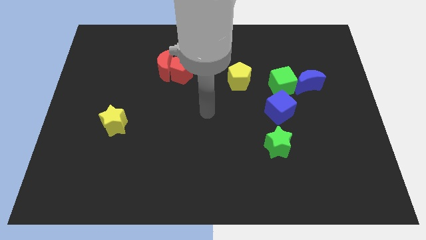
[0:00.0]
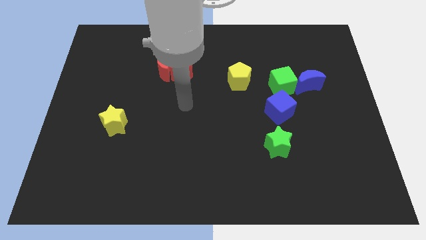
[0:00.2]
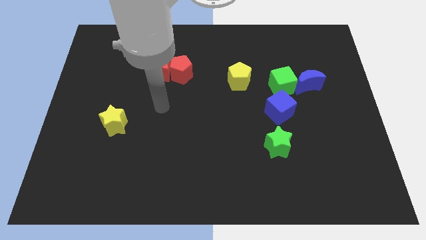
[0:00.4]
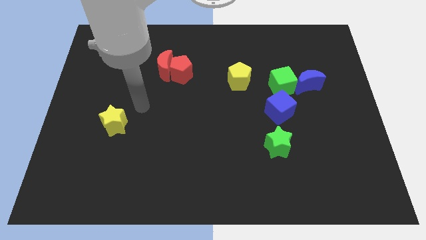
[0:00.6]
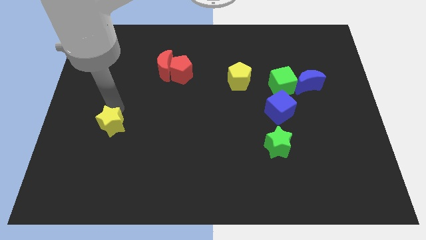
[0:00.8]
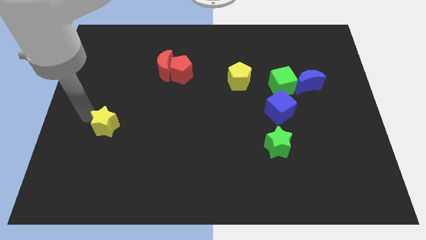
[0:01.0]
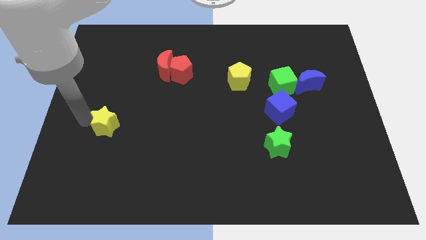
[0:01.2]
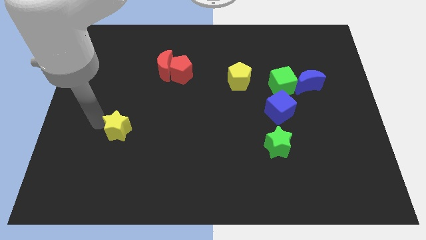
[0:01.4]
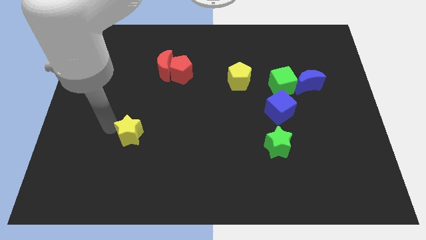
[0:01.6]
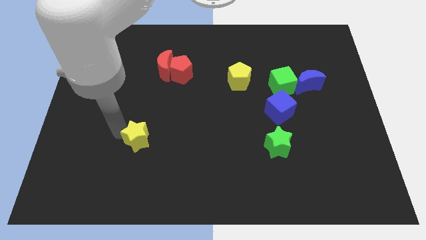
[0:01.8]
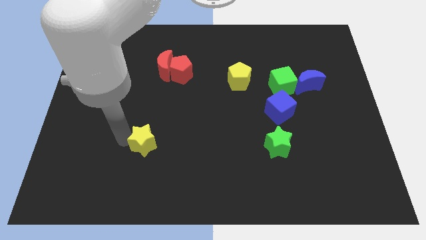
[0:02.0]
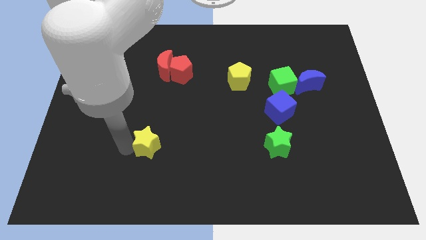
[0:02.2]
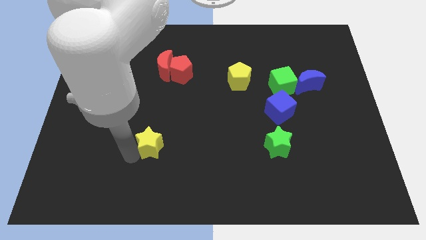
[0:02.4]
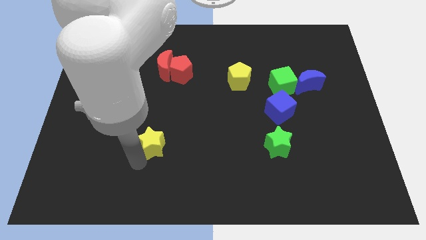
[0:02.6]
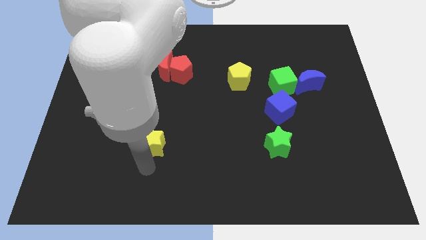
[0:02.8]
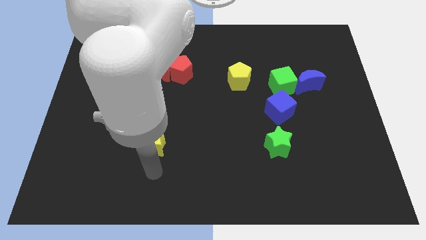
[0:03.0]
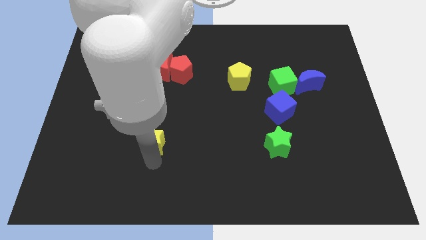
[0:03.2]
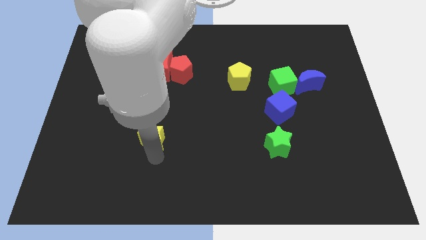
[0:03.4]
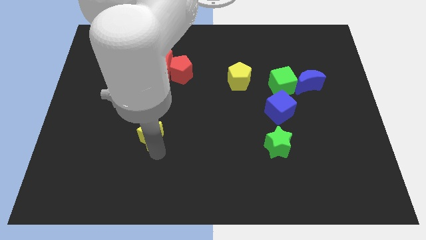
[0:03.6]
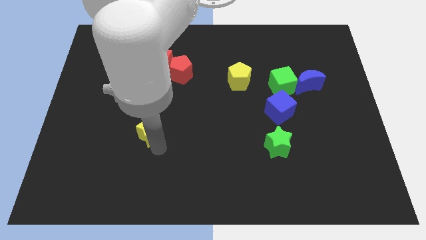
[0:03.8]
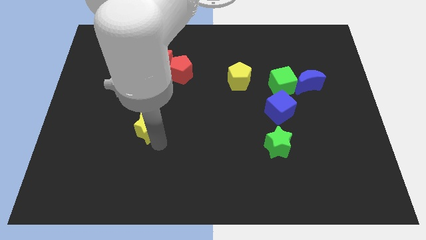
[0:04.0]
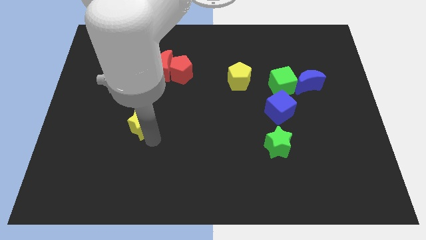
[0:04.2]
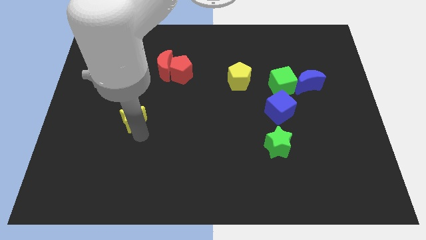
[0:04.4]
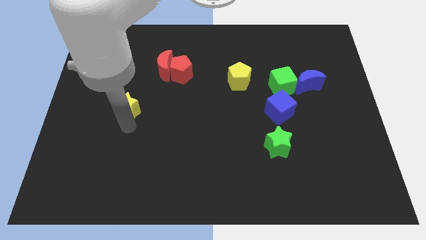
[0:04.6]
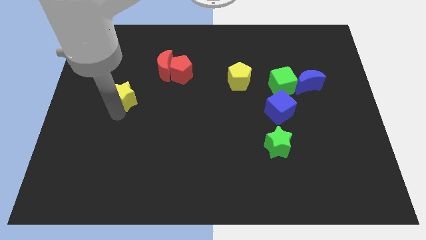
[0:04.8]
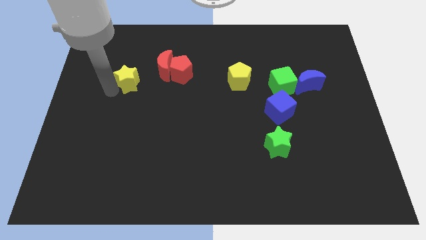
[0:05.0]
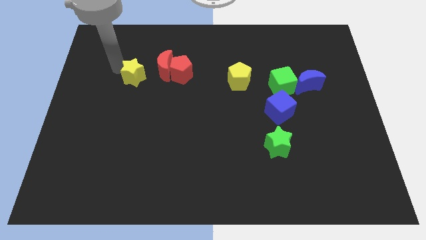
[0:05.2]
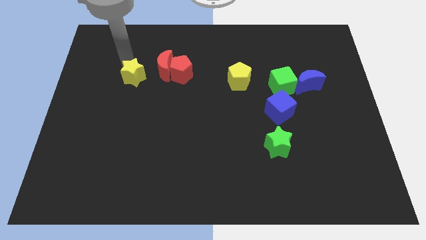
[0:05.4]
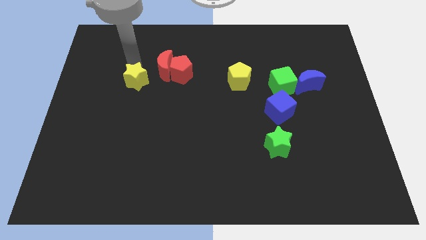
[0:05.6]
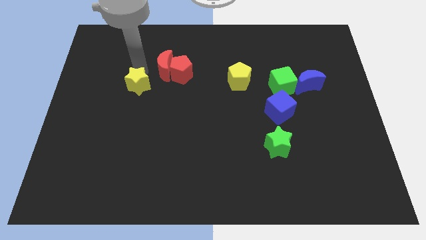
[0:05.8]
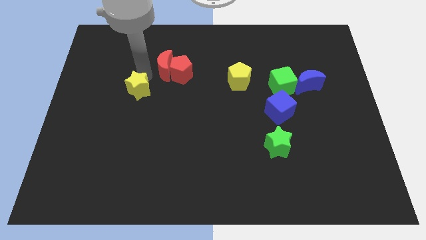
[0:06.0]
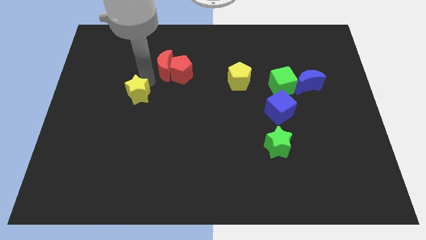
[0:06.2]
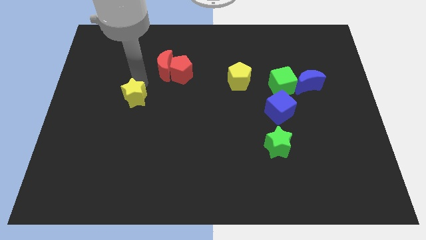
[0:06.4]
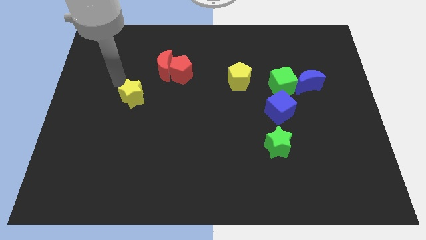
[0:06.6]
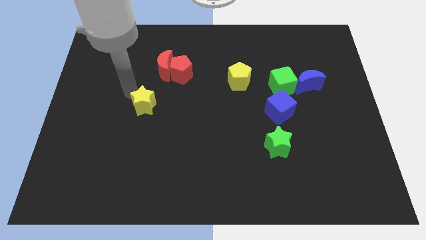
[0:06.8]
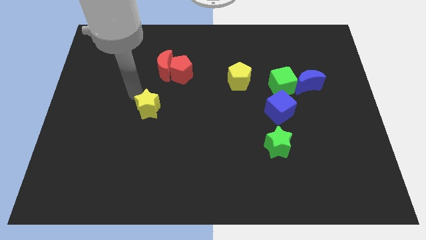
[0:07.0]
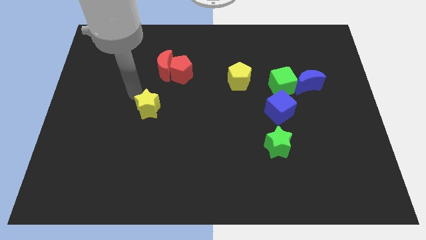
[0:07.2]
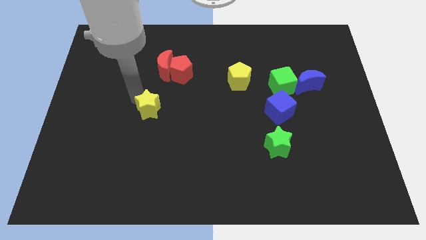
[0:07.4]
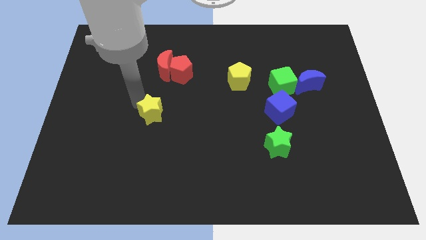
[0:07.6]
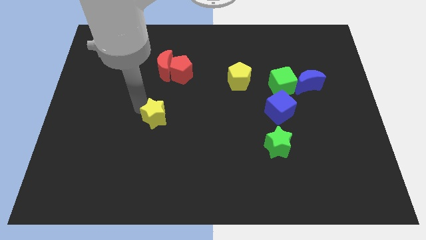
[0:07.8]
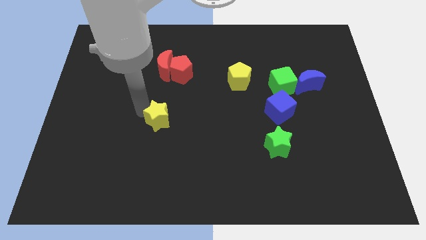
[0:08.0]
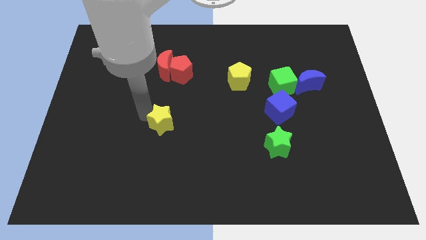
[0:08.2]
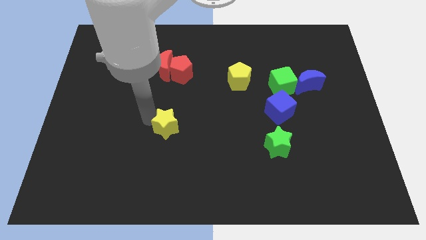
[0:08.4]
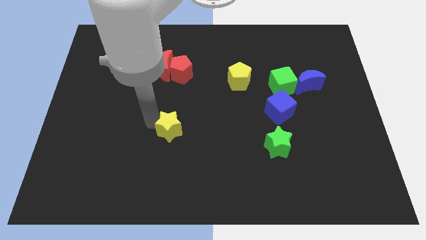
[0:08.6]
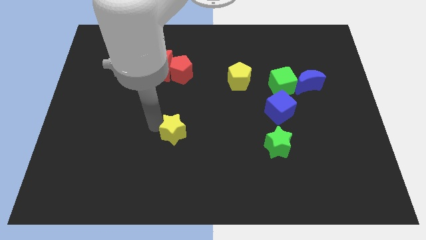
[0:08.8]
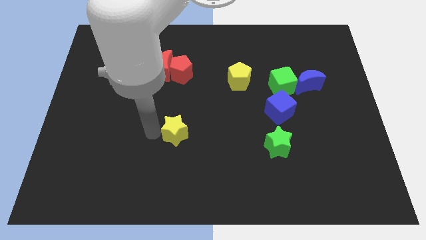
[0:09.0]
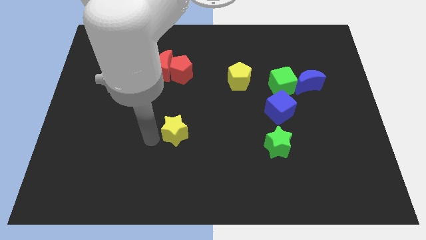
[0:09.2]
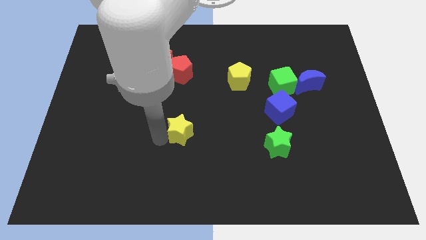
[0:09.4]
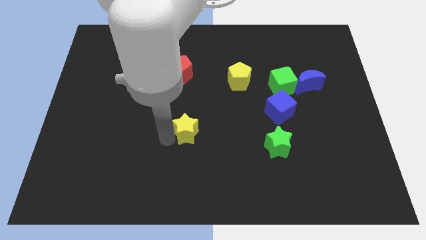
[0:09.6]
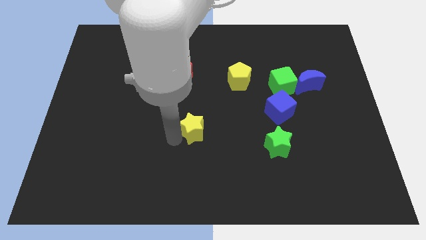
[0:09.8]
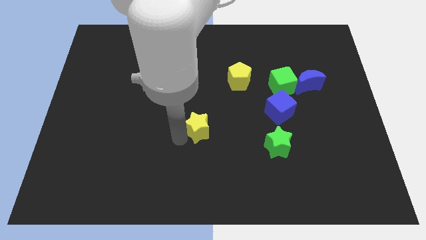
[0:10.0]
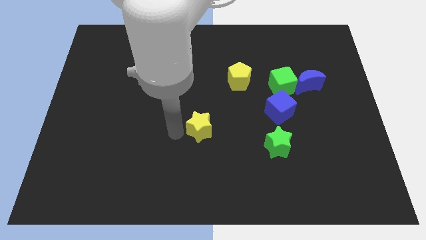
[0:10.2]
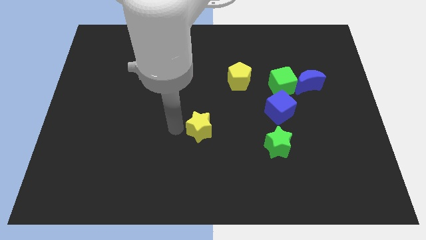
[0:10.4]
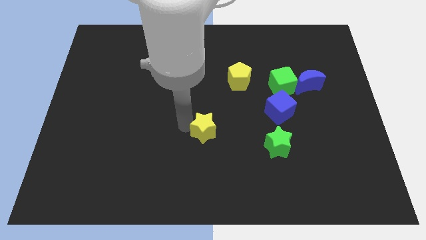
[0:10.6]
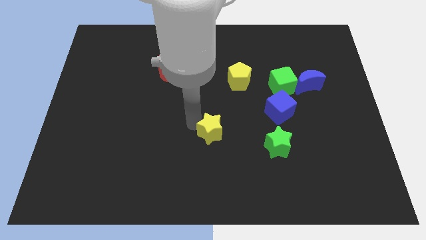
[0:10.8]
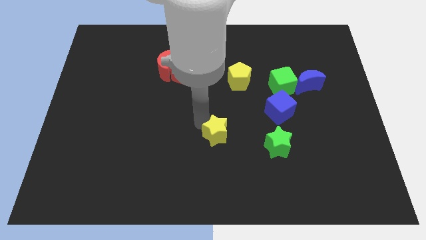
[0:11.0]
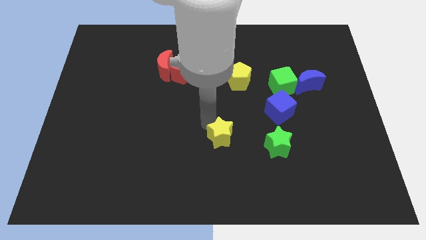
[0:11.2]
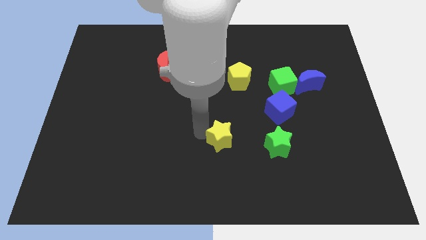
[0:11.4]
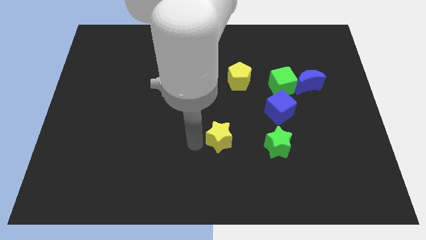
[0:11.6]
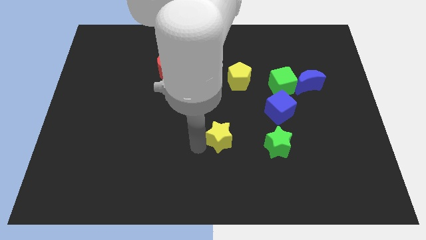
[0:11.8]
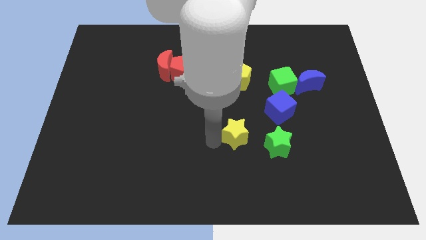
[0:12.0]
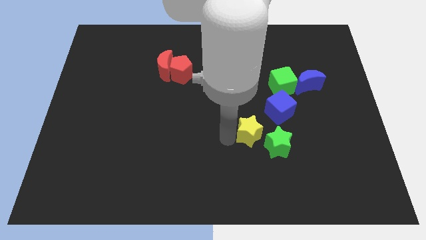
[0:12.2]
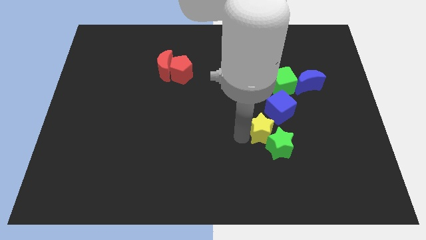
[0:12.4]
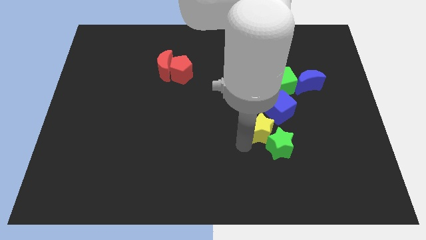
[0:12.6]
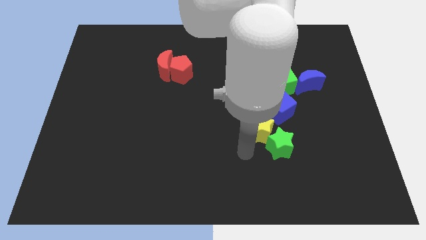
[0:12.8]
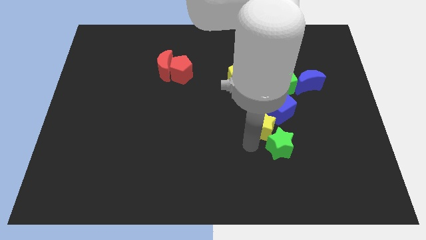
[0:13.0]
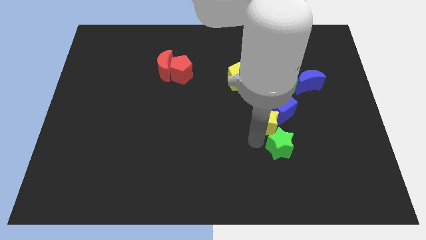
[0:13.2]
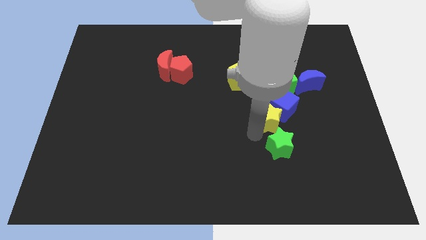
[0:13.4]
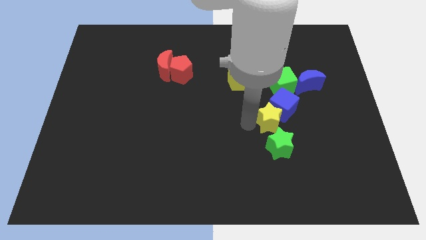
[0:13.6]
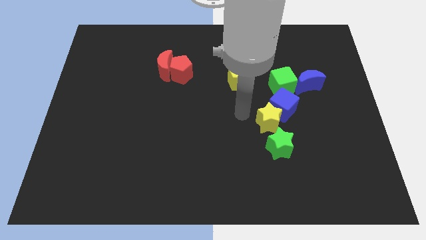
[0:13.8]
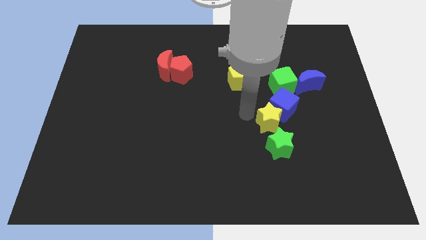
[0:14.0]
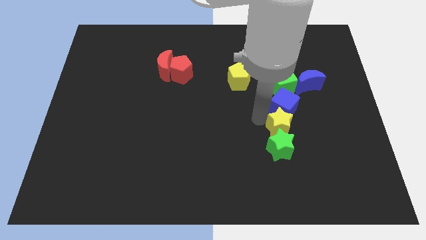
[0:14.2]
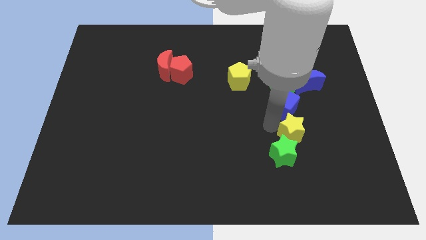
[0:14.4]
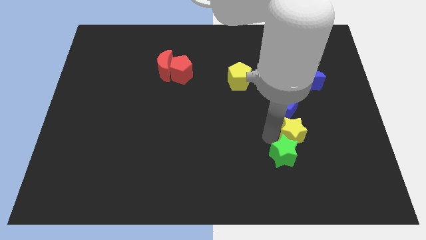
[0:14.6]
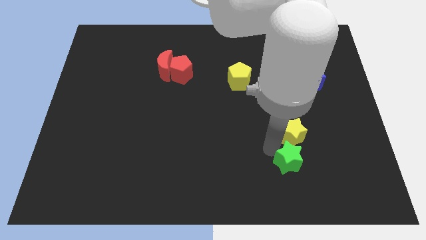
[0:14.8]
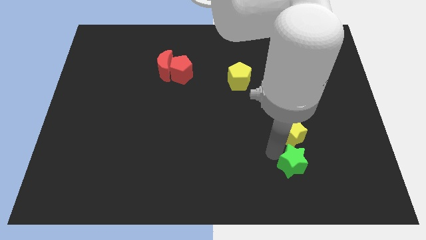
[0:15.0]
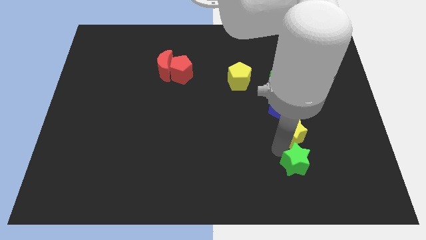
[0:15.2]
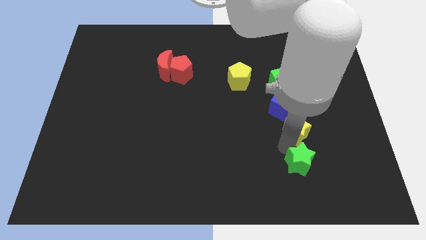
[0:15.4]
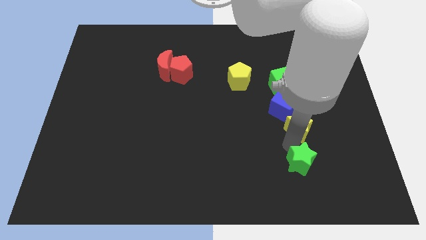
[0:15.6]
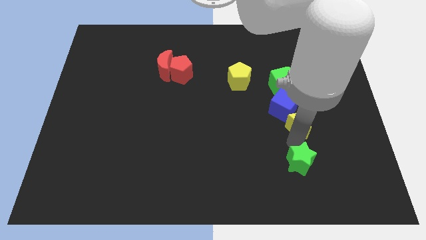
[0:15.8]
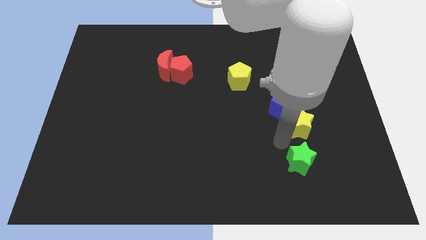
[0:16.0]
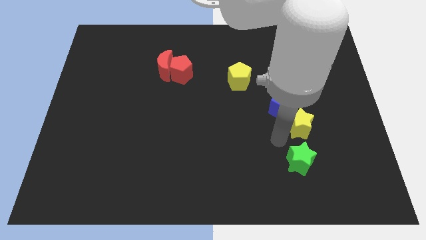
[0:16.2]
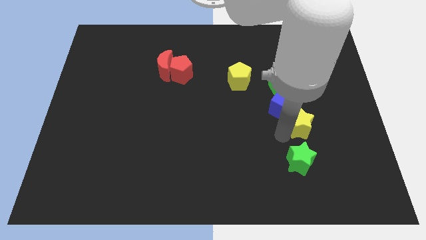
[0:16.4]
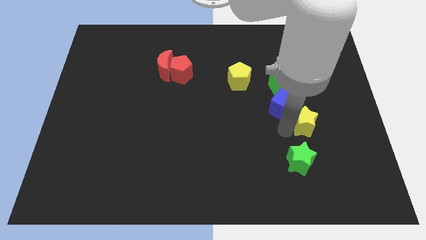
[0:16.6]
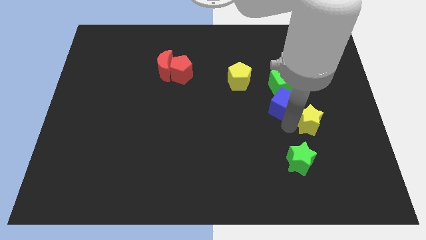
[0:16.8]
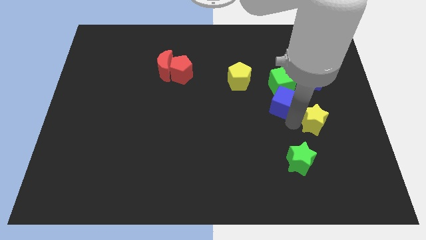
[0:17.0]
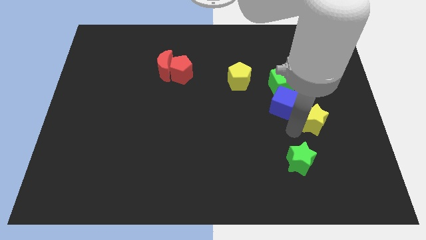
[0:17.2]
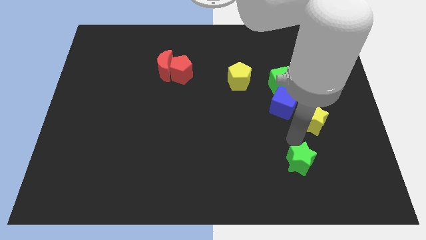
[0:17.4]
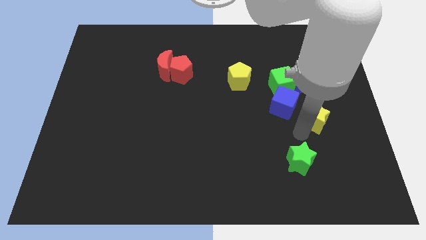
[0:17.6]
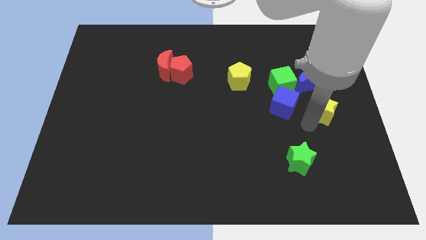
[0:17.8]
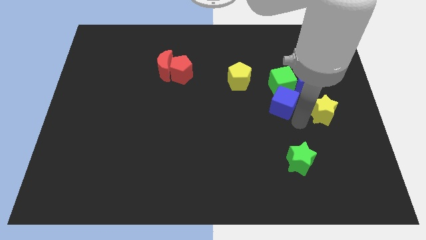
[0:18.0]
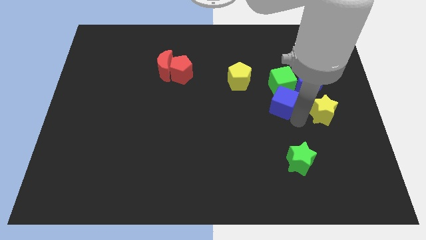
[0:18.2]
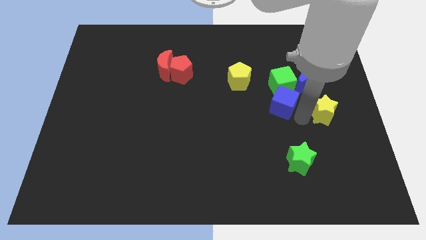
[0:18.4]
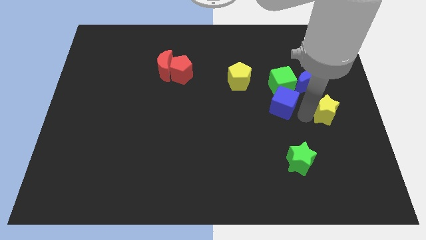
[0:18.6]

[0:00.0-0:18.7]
put the yellow star to the right side of the board
